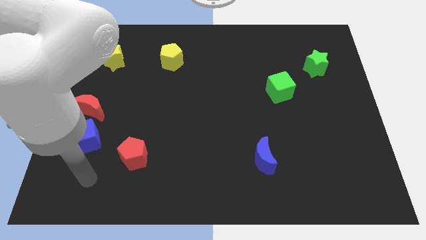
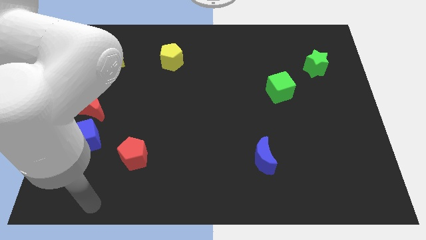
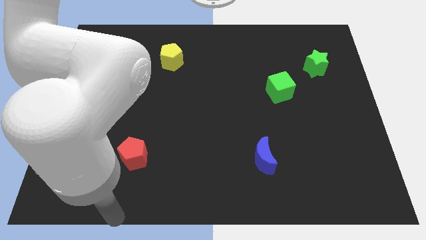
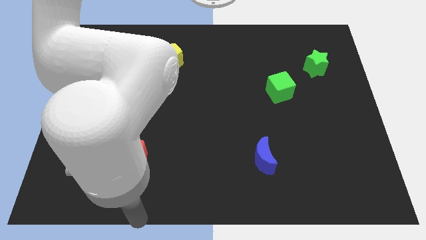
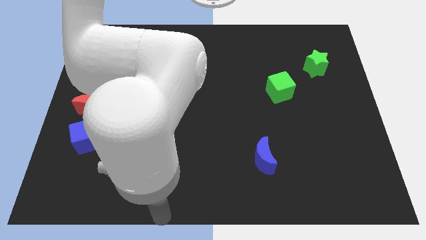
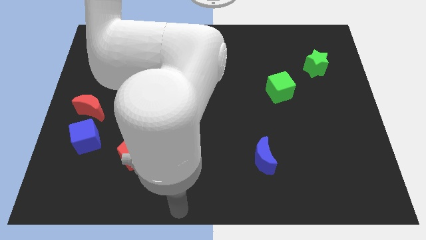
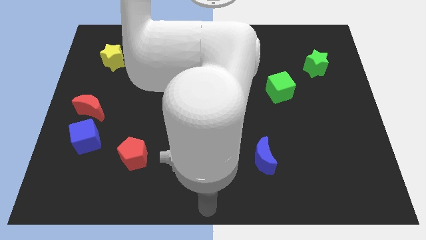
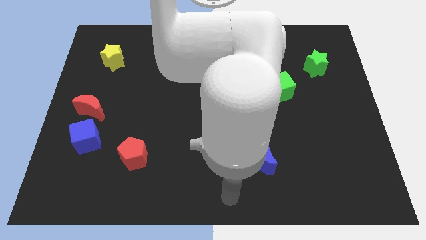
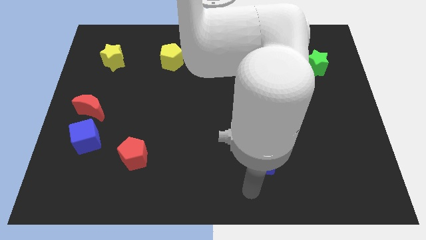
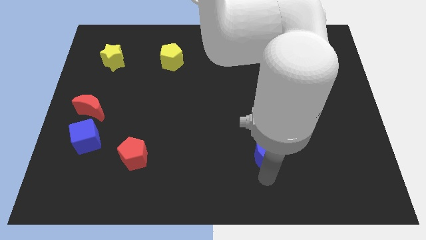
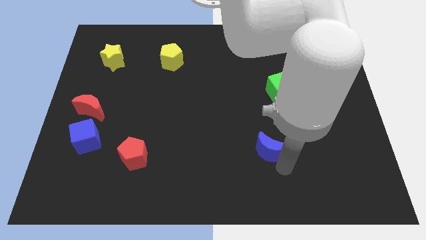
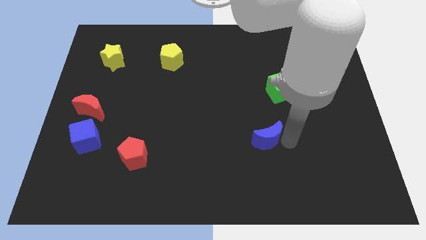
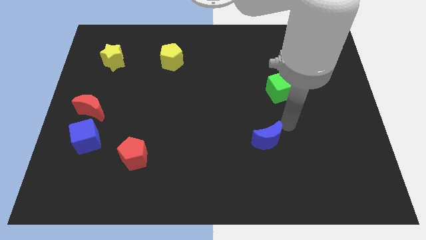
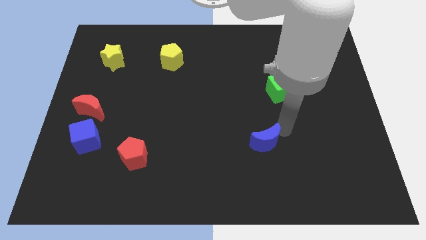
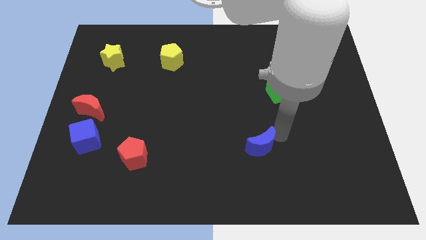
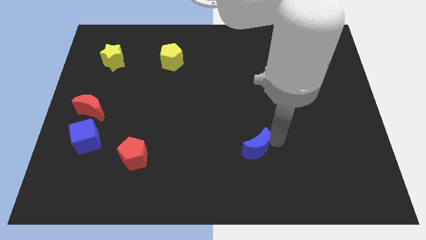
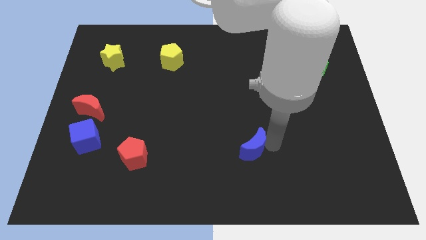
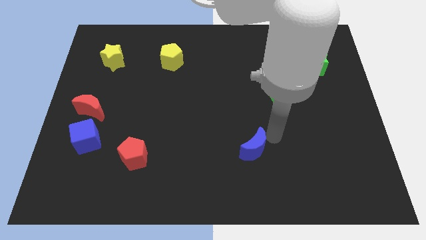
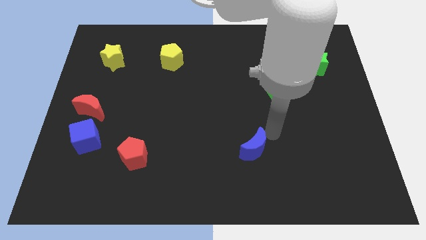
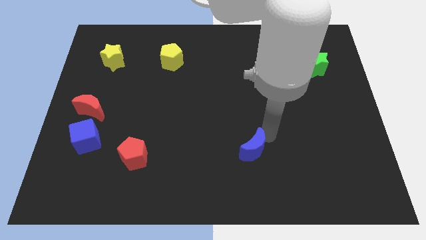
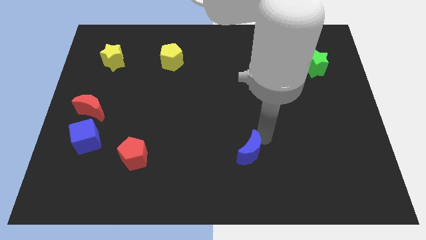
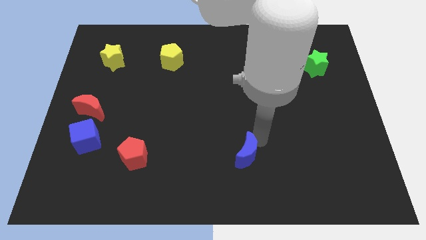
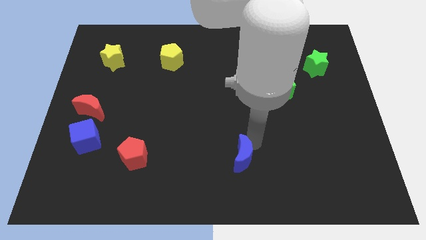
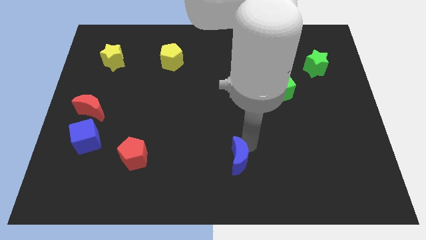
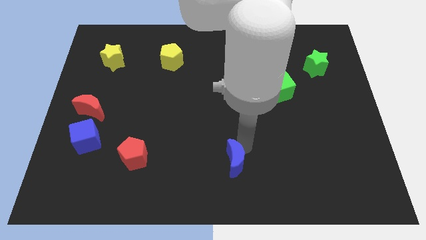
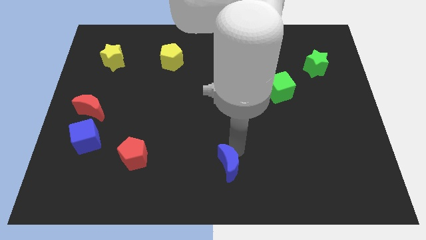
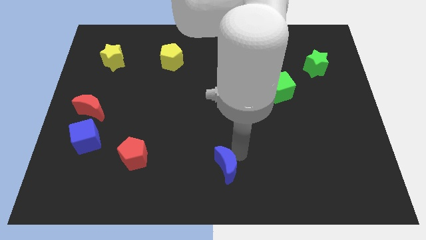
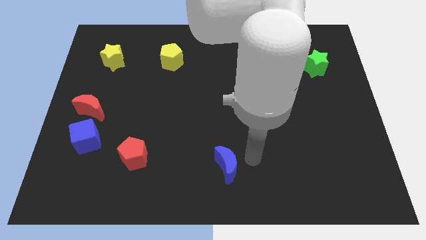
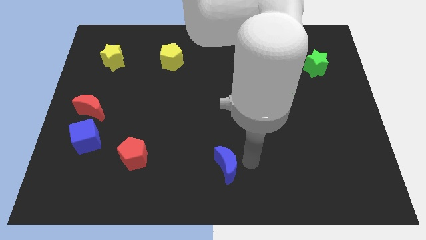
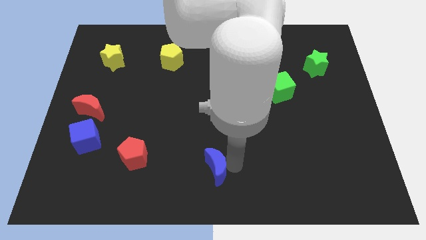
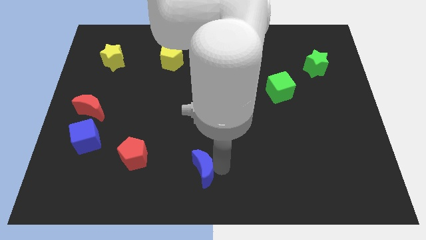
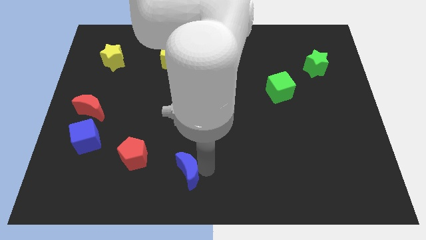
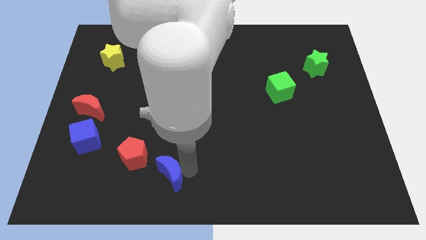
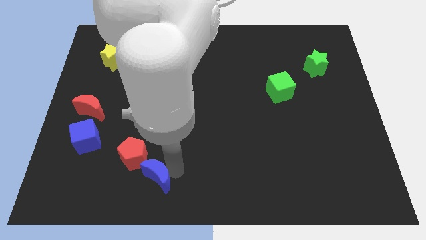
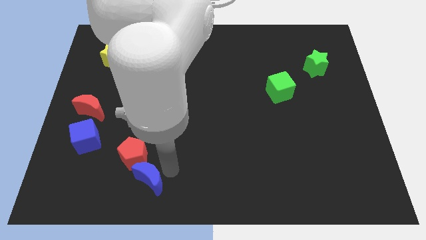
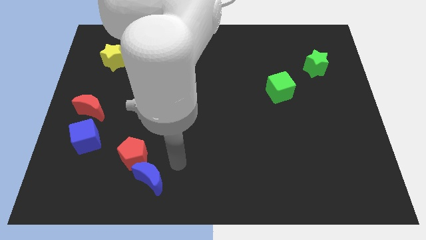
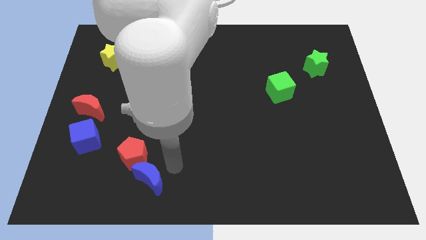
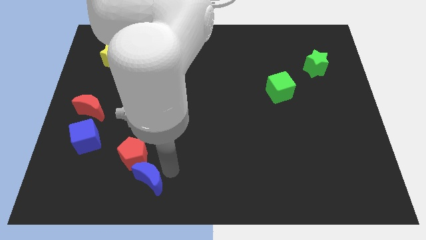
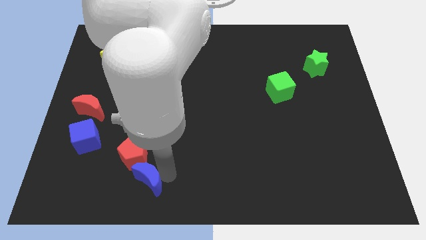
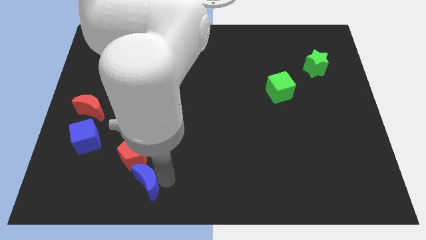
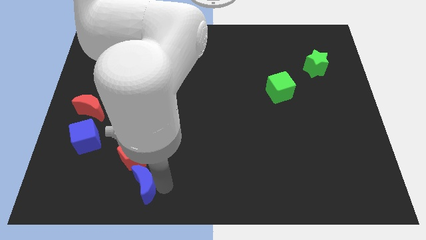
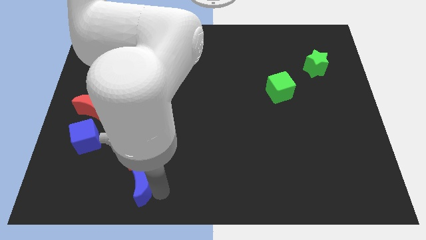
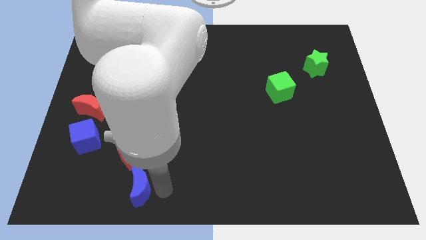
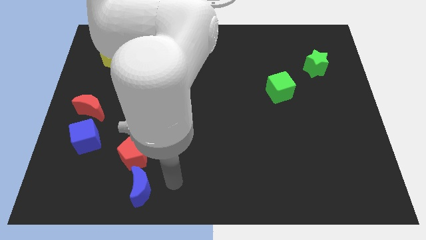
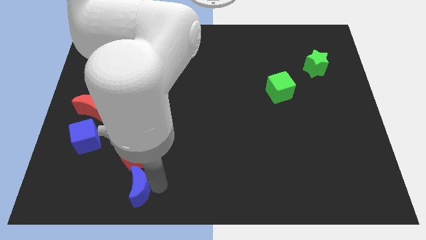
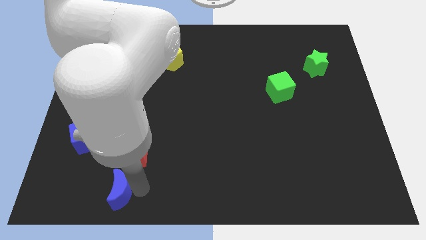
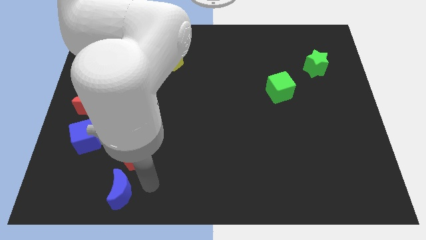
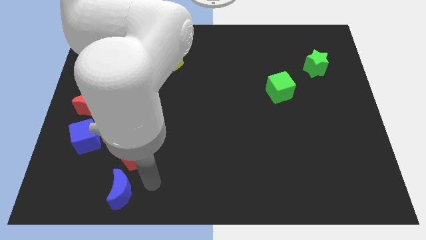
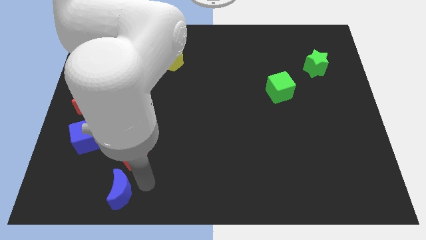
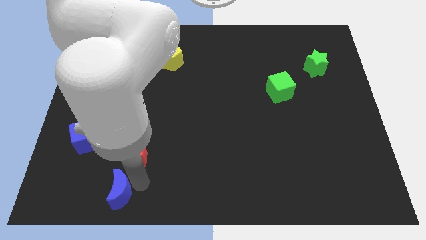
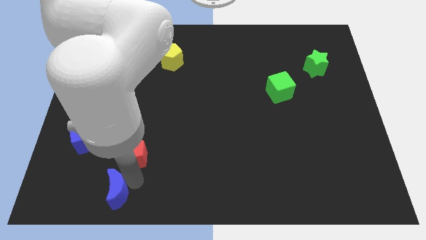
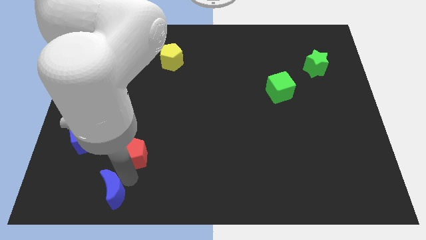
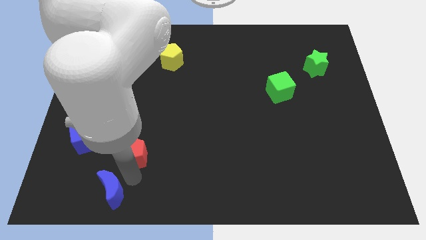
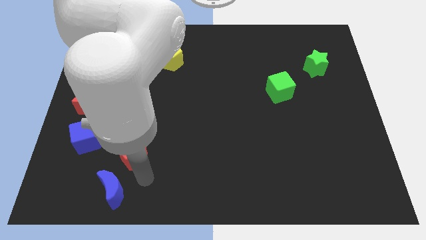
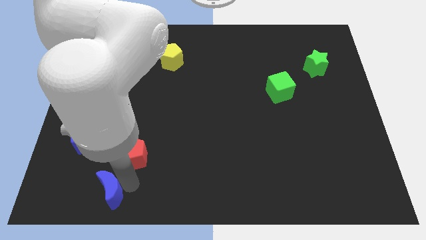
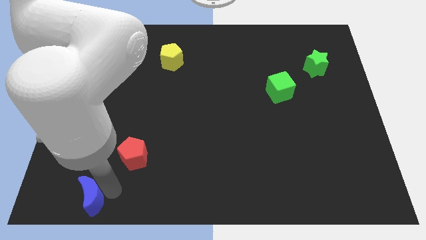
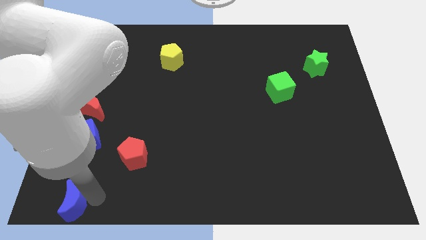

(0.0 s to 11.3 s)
put the blue moon to the bottom left of the board
